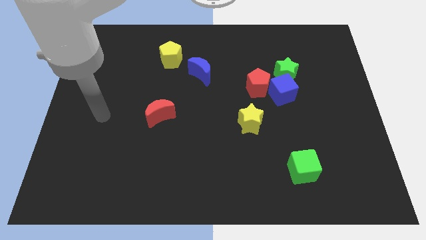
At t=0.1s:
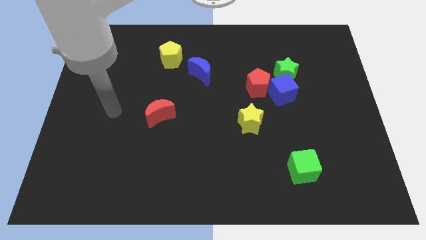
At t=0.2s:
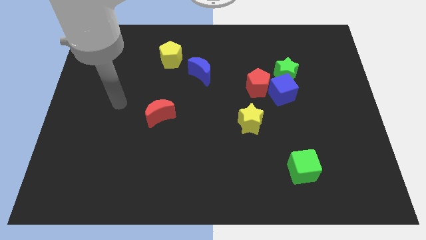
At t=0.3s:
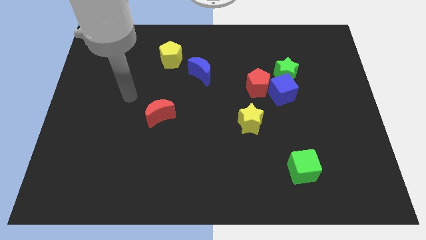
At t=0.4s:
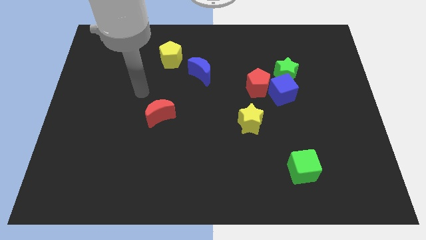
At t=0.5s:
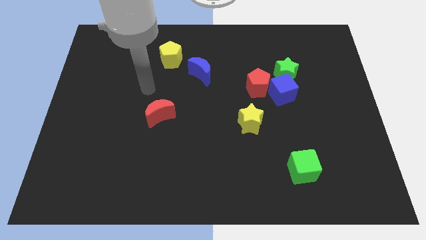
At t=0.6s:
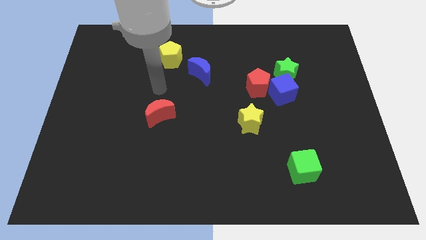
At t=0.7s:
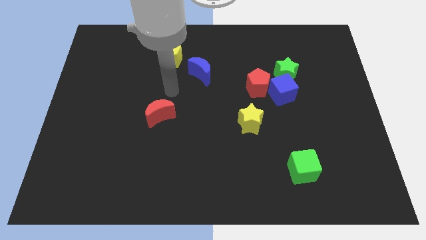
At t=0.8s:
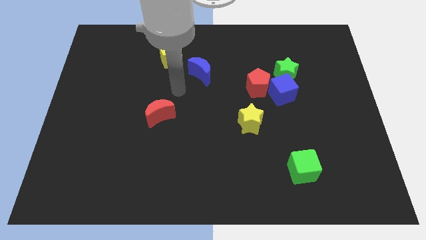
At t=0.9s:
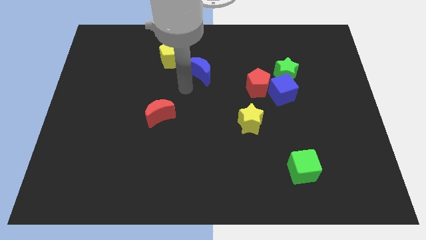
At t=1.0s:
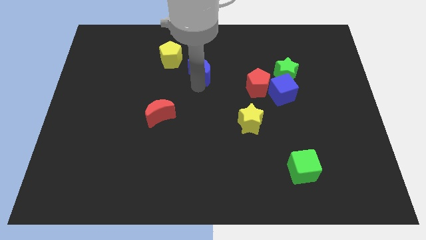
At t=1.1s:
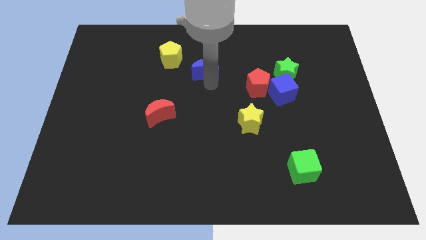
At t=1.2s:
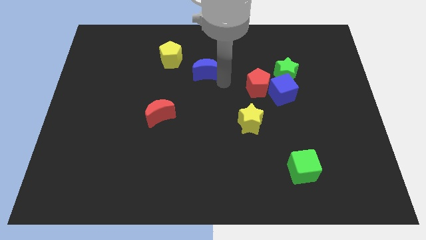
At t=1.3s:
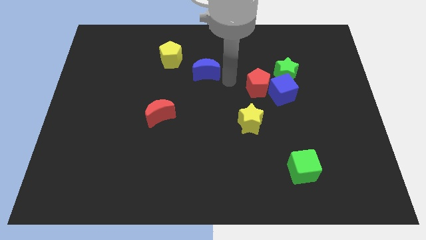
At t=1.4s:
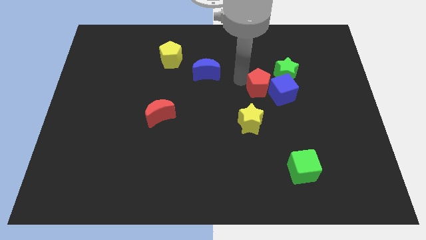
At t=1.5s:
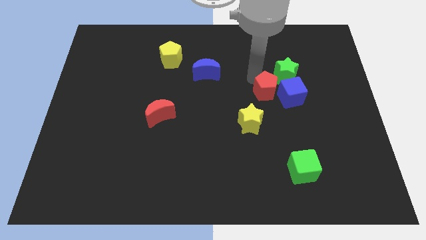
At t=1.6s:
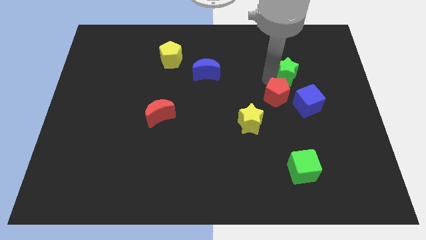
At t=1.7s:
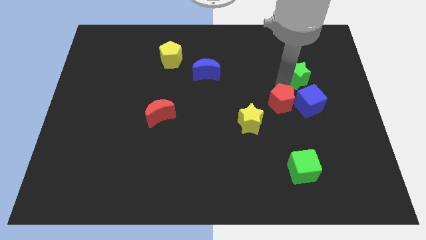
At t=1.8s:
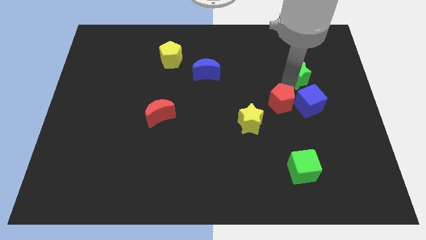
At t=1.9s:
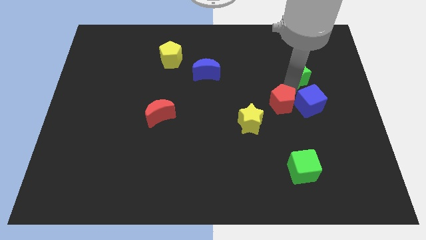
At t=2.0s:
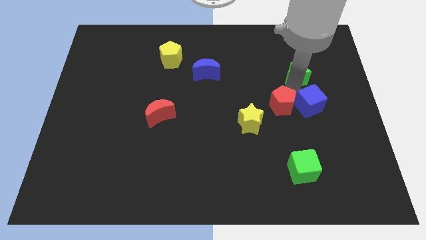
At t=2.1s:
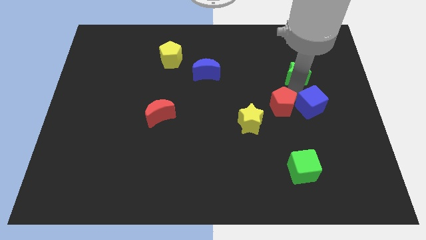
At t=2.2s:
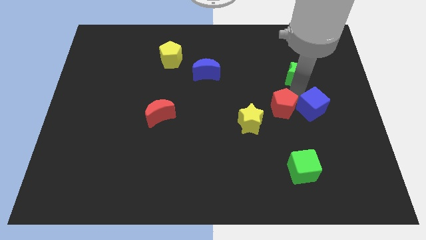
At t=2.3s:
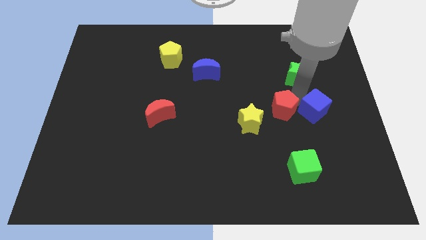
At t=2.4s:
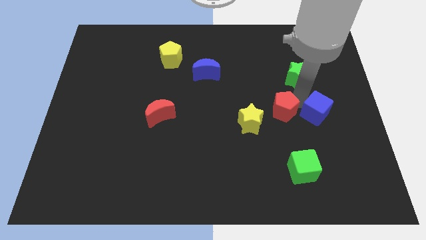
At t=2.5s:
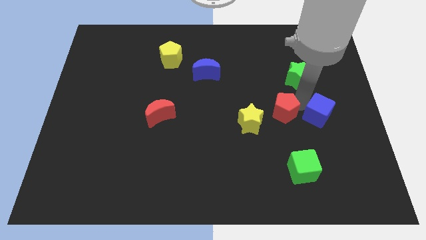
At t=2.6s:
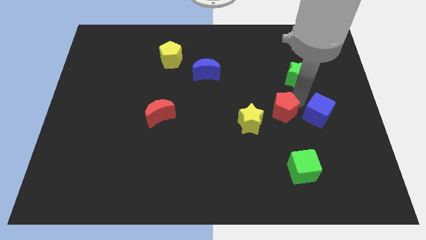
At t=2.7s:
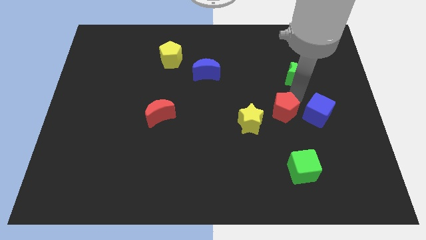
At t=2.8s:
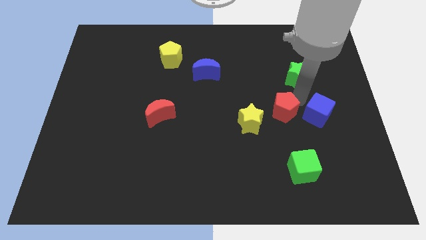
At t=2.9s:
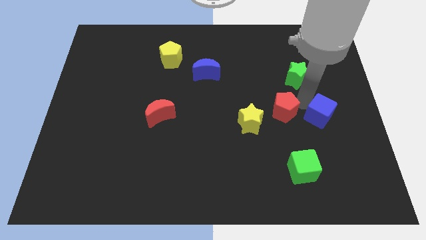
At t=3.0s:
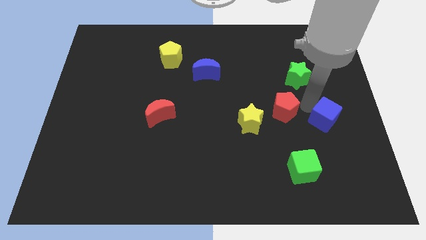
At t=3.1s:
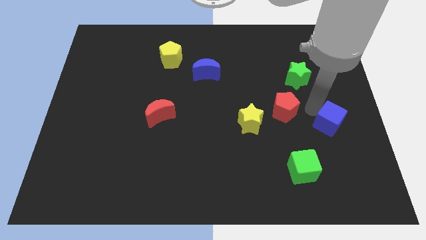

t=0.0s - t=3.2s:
separate the blue cube from the green star and red pentagon

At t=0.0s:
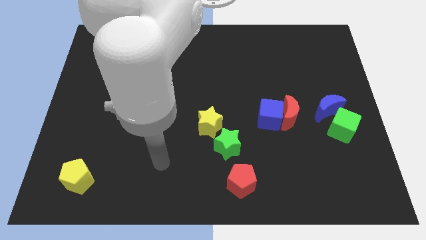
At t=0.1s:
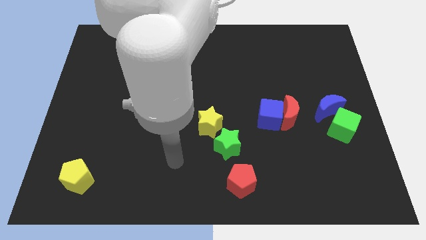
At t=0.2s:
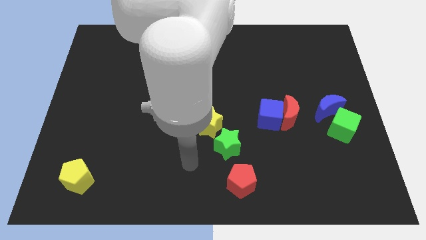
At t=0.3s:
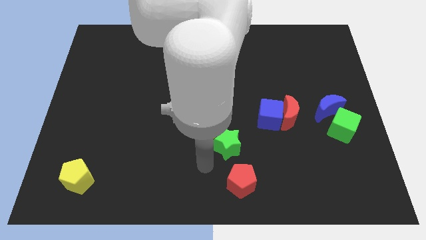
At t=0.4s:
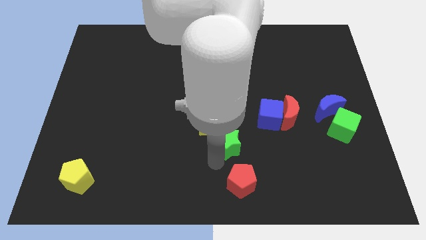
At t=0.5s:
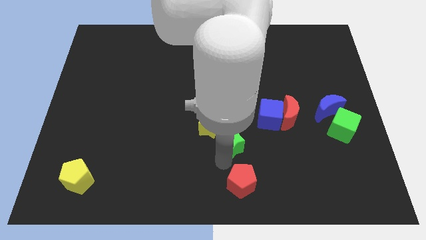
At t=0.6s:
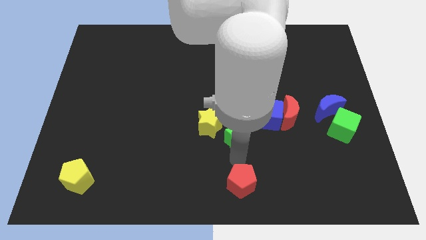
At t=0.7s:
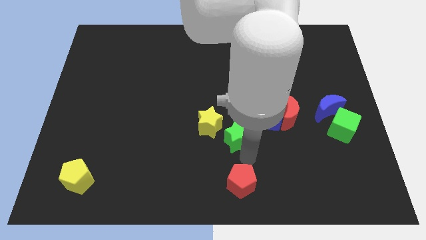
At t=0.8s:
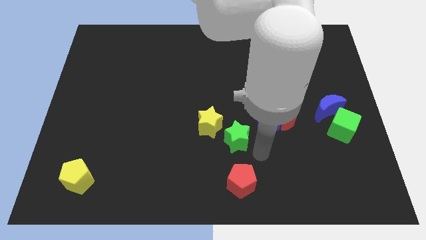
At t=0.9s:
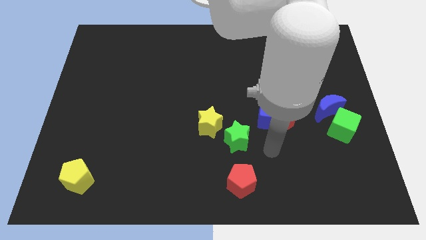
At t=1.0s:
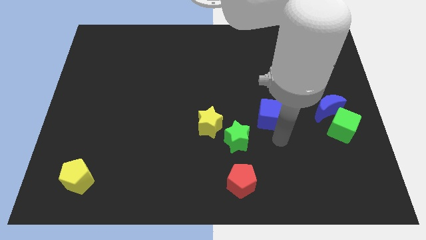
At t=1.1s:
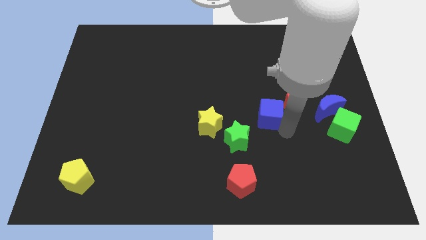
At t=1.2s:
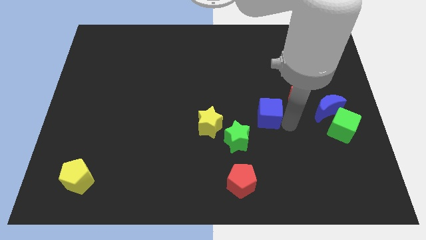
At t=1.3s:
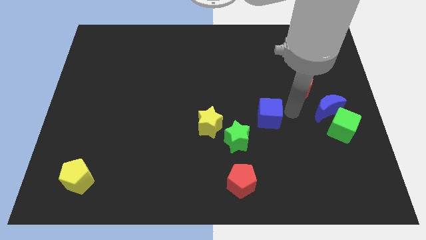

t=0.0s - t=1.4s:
separate the blue cube from the red moon

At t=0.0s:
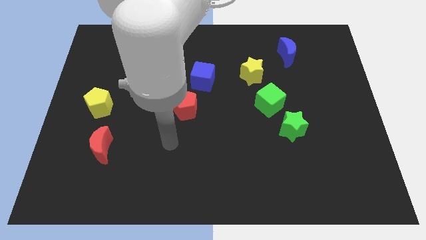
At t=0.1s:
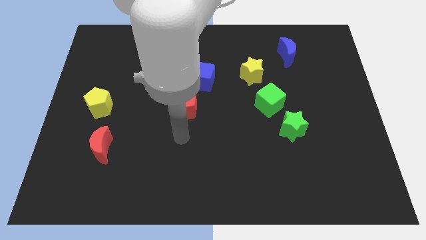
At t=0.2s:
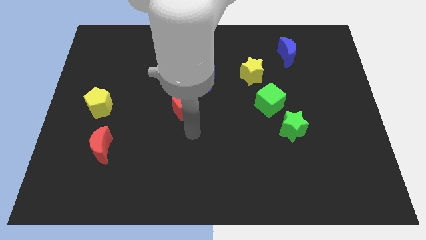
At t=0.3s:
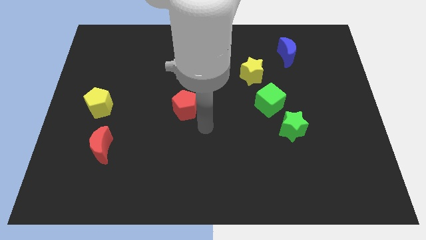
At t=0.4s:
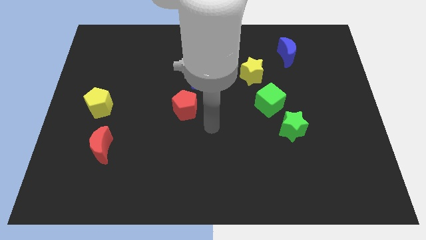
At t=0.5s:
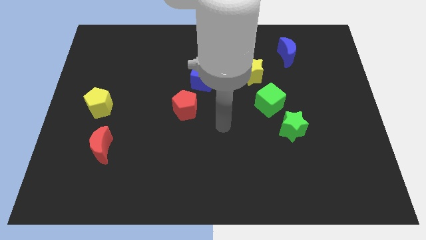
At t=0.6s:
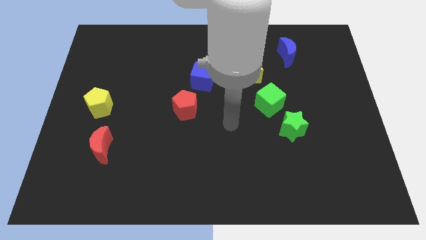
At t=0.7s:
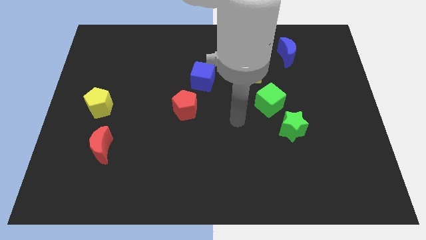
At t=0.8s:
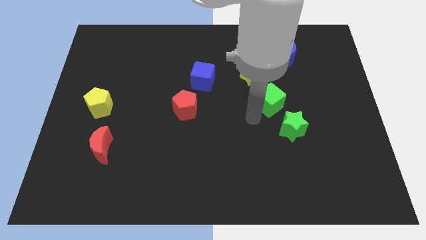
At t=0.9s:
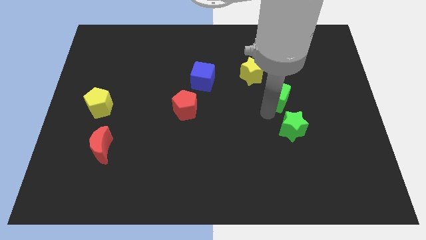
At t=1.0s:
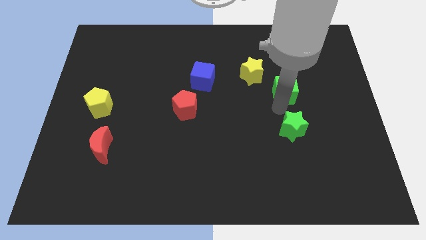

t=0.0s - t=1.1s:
move the green star away from the green cube

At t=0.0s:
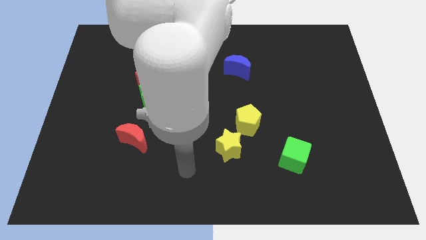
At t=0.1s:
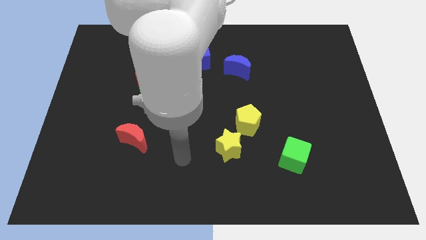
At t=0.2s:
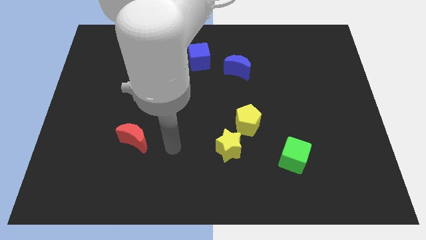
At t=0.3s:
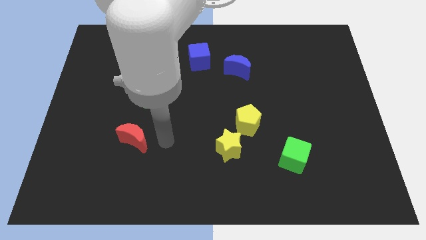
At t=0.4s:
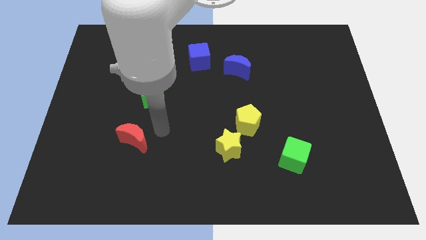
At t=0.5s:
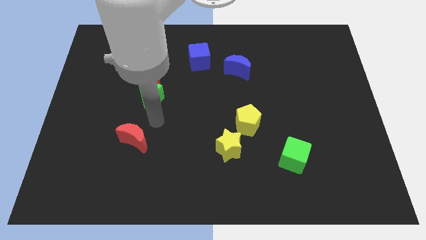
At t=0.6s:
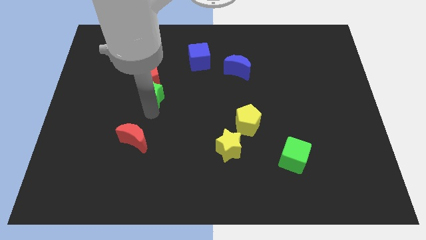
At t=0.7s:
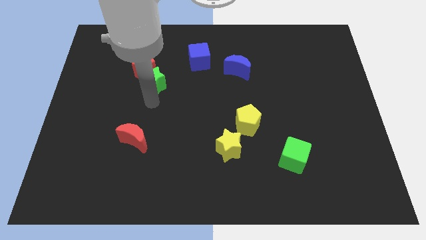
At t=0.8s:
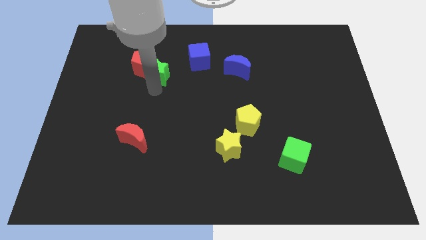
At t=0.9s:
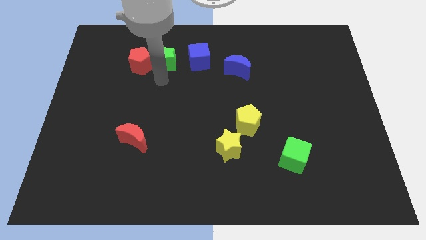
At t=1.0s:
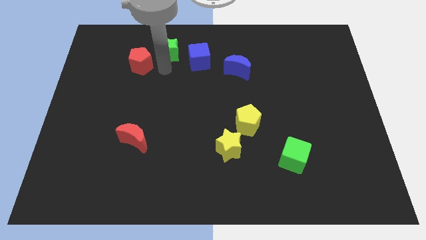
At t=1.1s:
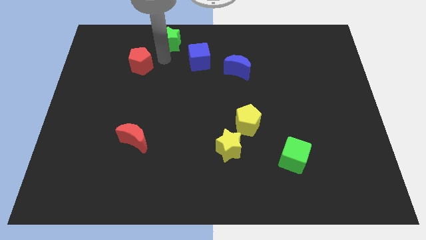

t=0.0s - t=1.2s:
pull the red pentagon apart from the green star

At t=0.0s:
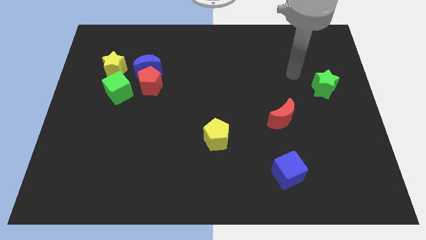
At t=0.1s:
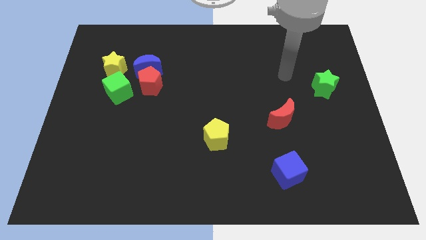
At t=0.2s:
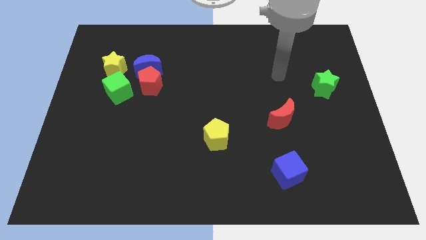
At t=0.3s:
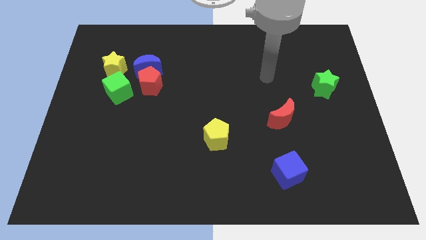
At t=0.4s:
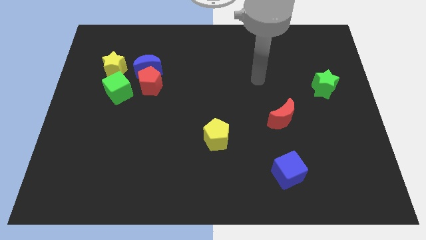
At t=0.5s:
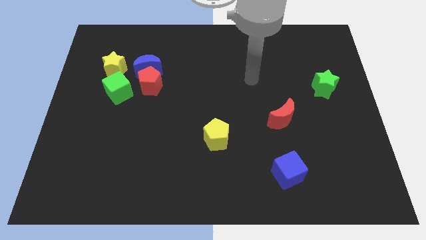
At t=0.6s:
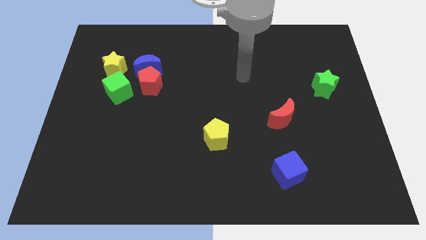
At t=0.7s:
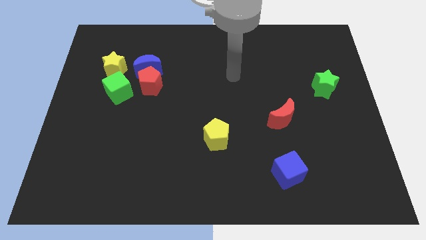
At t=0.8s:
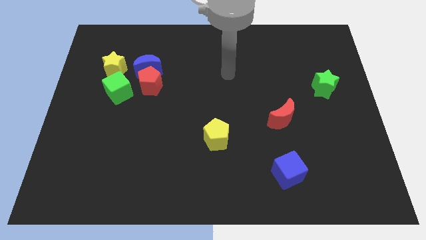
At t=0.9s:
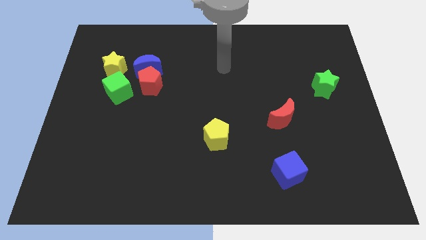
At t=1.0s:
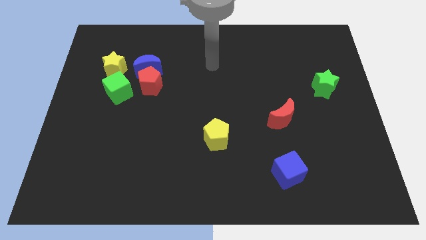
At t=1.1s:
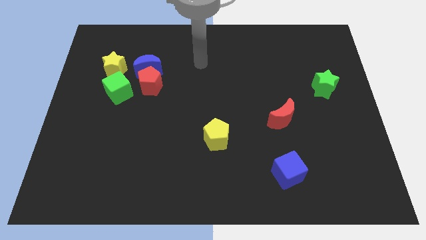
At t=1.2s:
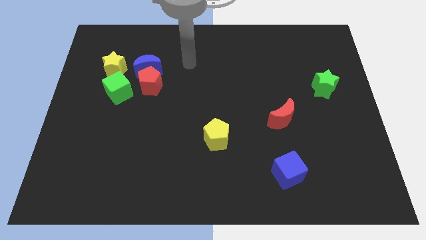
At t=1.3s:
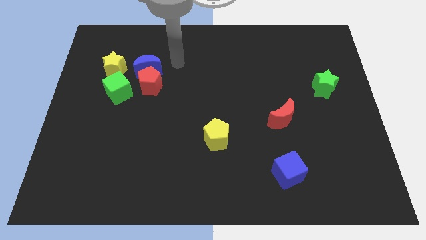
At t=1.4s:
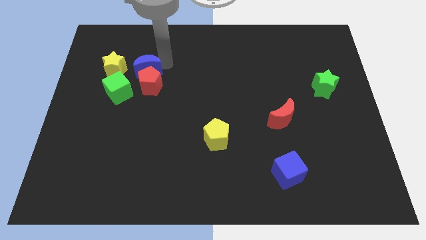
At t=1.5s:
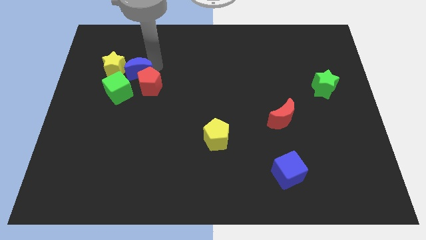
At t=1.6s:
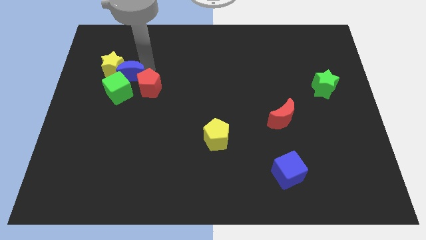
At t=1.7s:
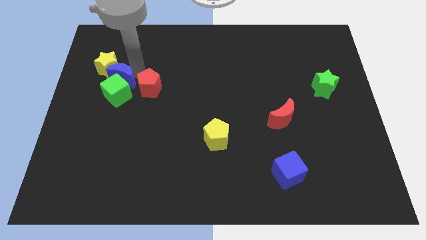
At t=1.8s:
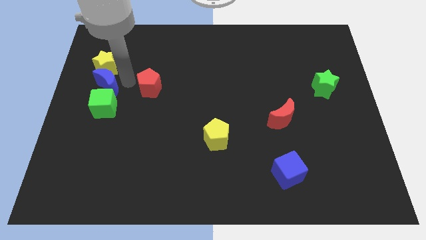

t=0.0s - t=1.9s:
separate the red pentagon from the blue moon and green cube

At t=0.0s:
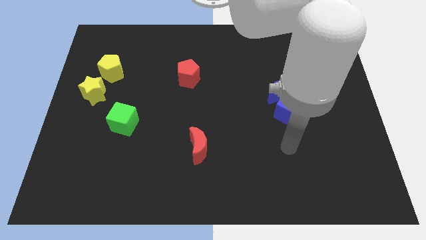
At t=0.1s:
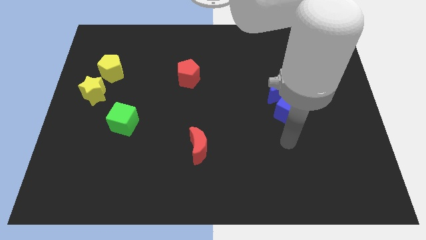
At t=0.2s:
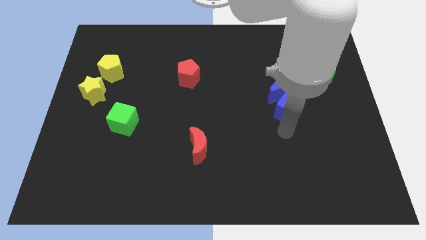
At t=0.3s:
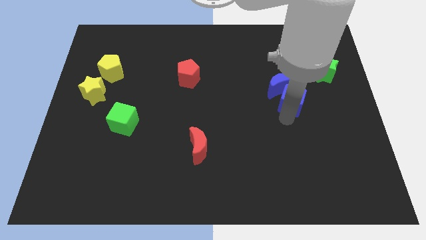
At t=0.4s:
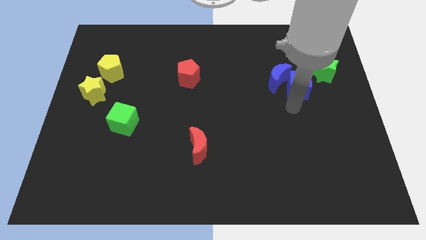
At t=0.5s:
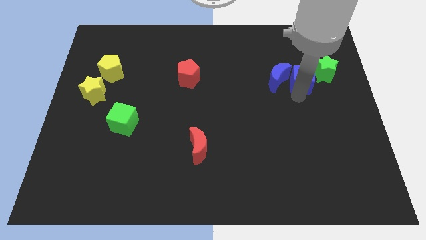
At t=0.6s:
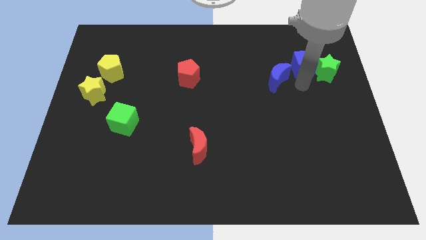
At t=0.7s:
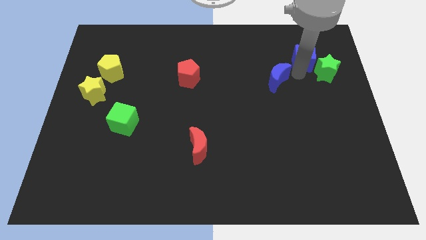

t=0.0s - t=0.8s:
pull the blue moon apart from the blue cube
